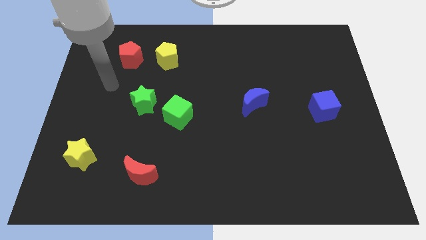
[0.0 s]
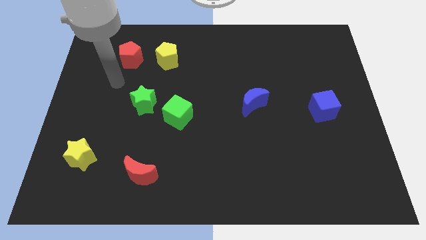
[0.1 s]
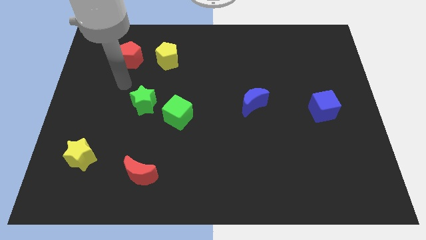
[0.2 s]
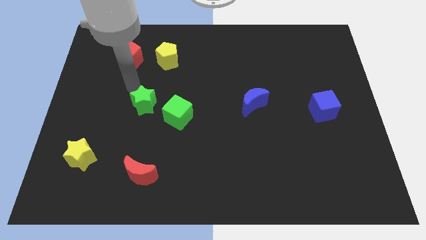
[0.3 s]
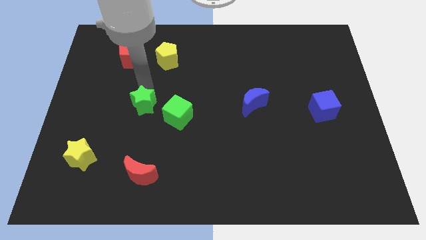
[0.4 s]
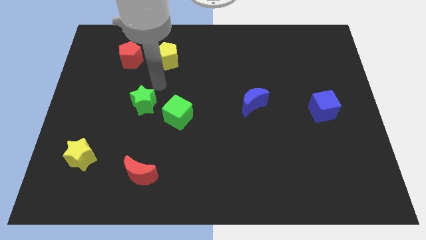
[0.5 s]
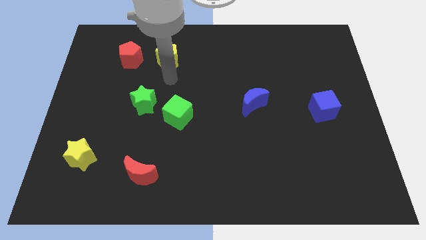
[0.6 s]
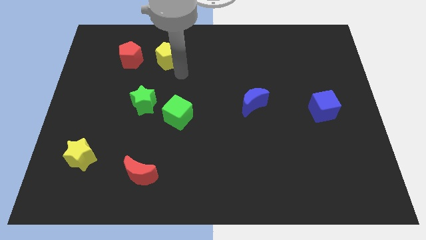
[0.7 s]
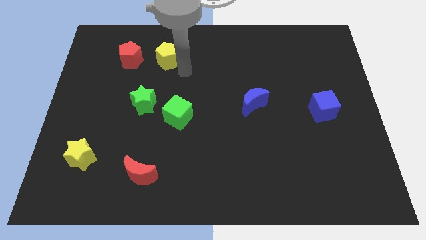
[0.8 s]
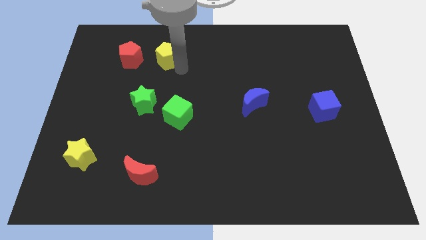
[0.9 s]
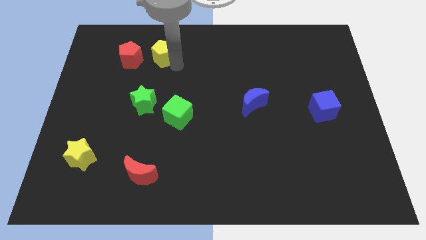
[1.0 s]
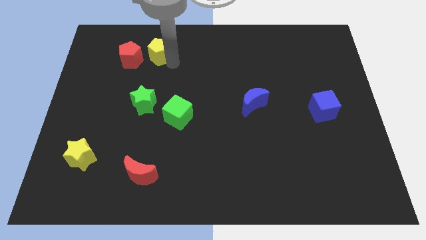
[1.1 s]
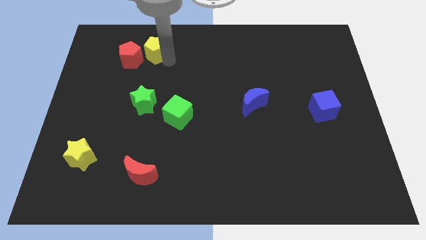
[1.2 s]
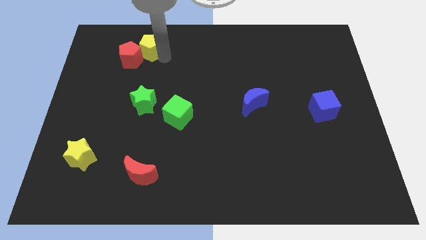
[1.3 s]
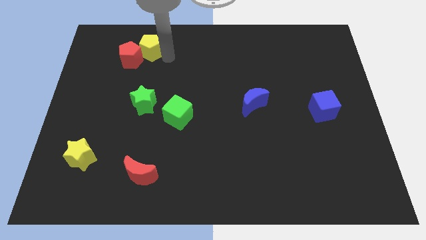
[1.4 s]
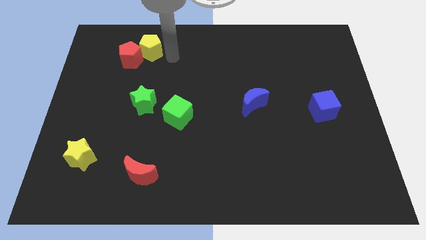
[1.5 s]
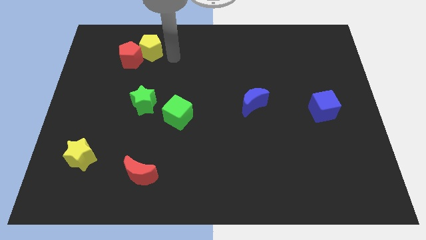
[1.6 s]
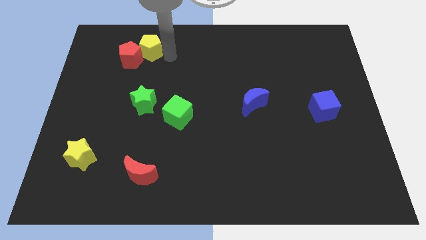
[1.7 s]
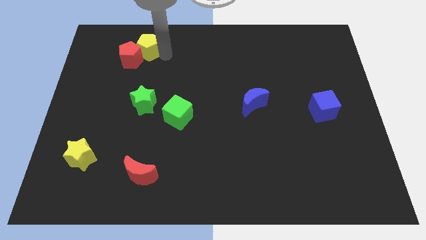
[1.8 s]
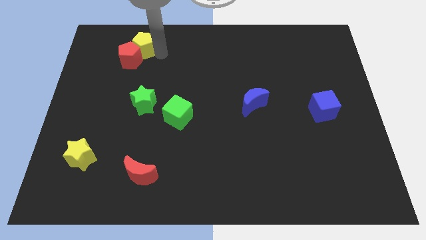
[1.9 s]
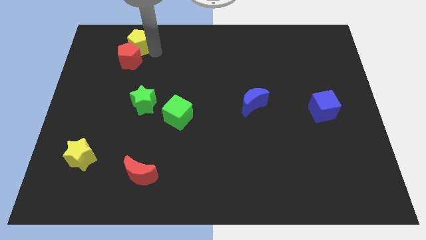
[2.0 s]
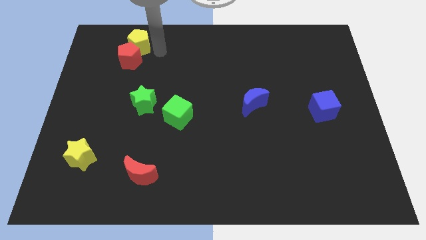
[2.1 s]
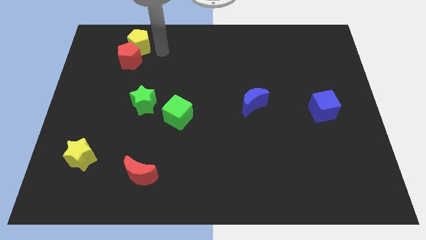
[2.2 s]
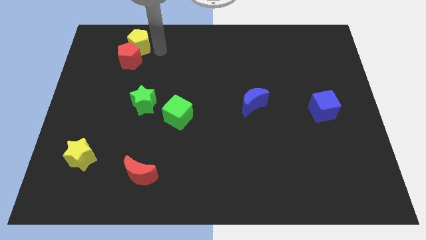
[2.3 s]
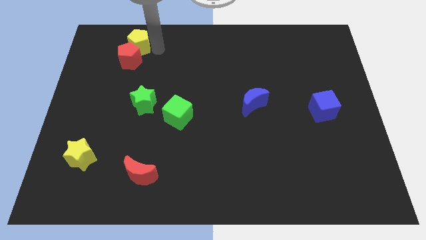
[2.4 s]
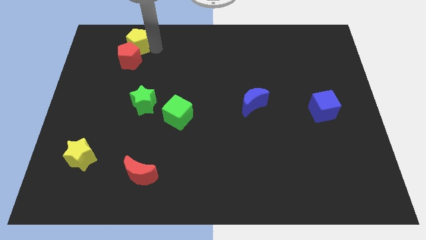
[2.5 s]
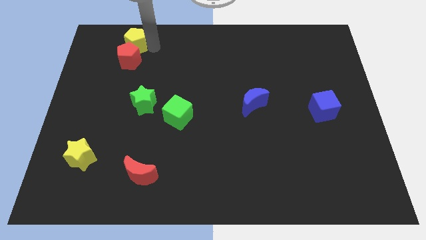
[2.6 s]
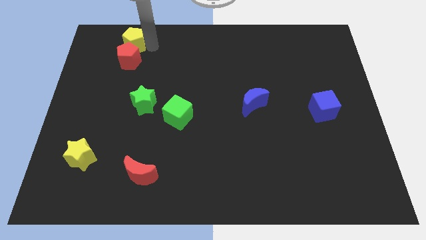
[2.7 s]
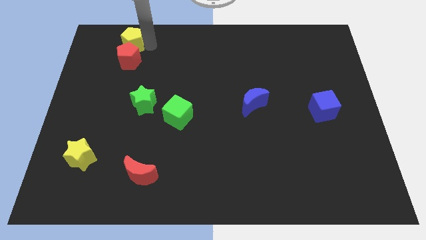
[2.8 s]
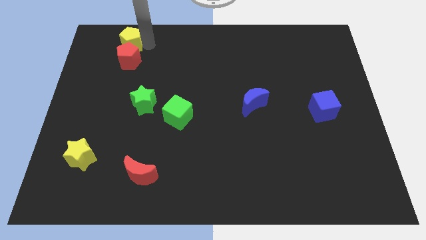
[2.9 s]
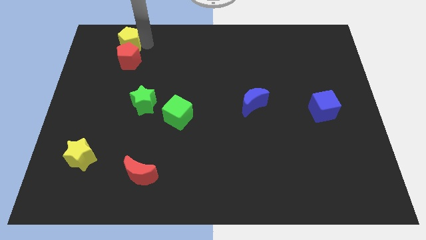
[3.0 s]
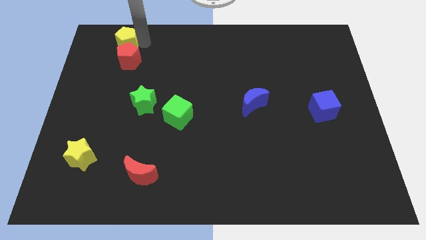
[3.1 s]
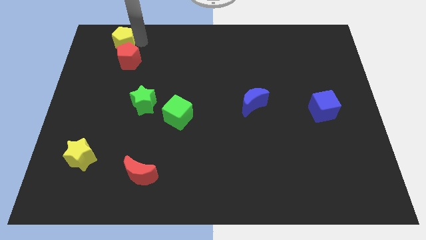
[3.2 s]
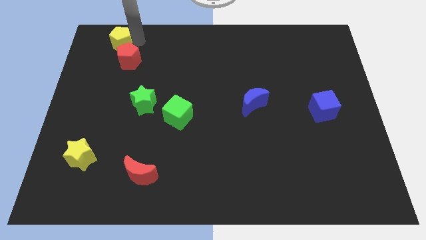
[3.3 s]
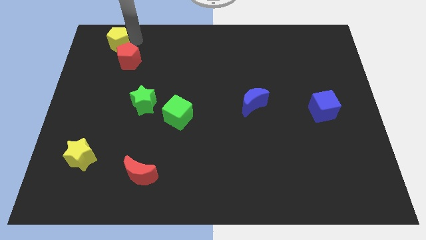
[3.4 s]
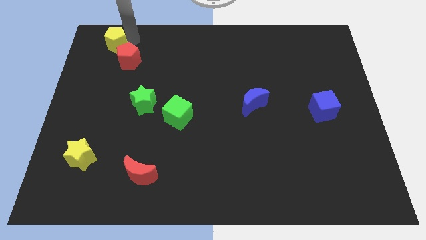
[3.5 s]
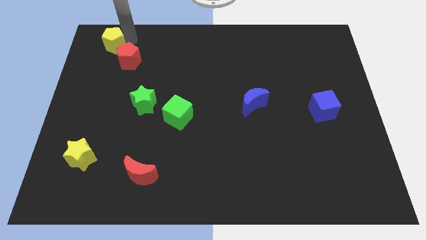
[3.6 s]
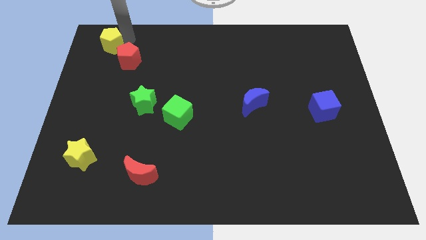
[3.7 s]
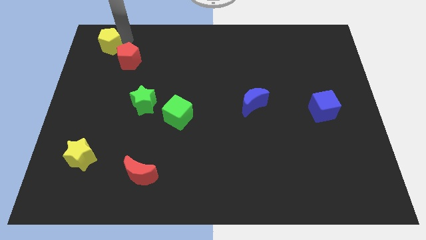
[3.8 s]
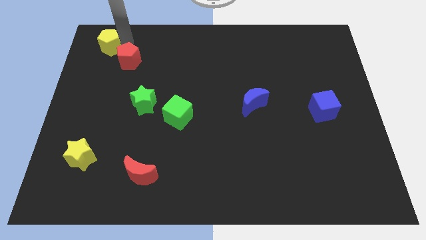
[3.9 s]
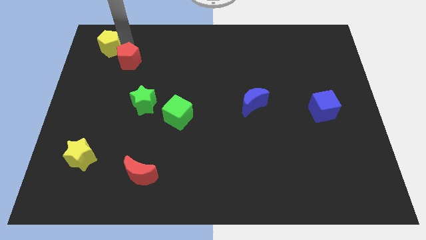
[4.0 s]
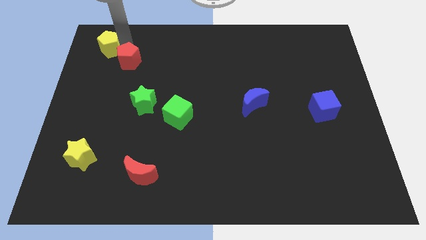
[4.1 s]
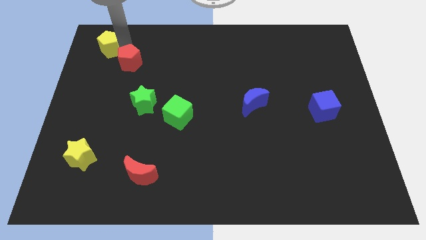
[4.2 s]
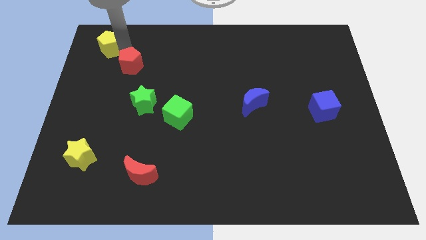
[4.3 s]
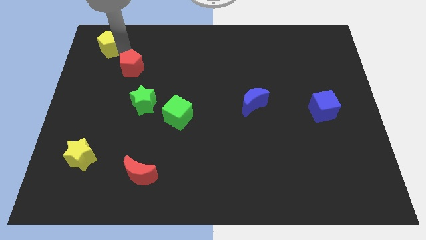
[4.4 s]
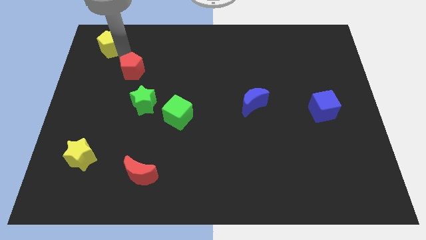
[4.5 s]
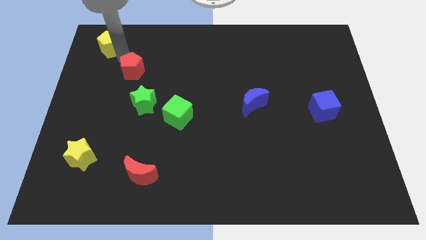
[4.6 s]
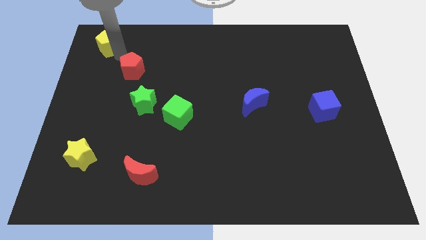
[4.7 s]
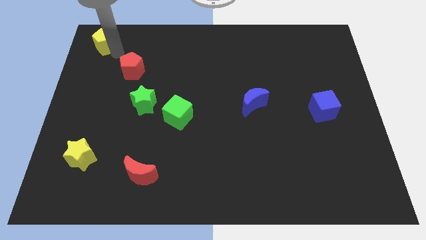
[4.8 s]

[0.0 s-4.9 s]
push the yellow pentagon to the top left

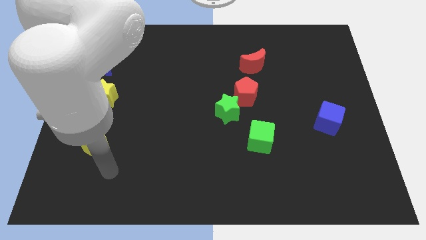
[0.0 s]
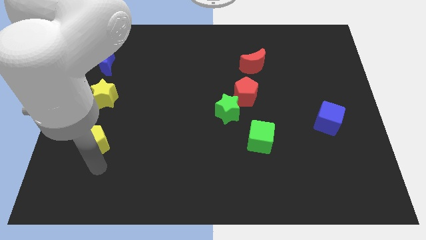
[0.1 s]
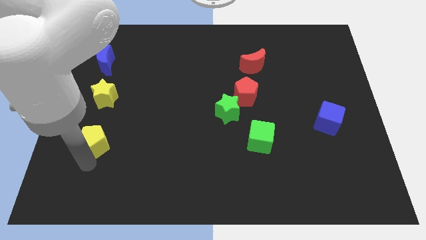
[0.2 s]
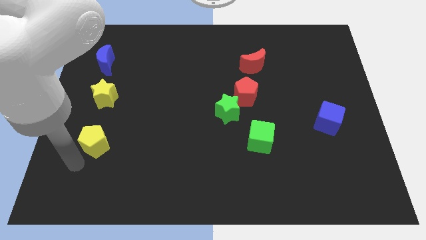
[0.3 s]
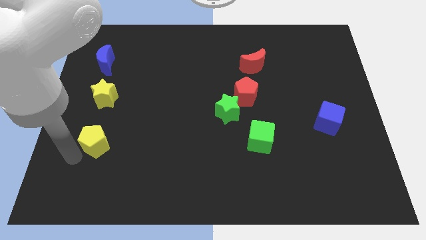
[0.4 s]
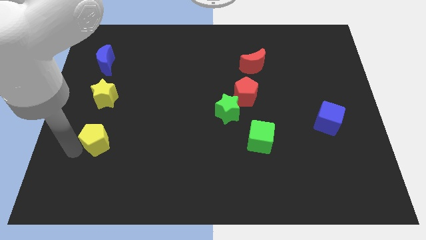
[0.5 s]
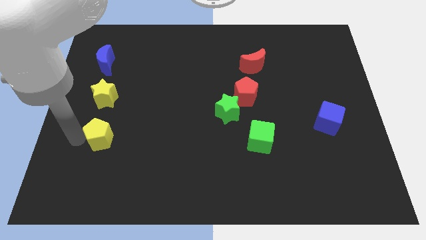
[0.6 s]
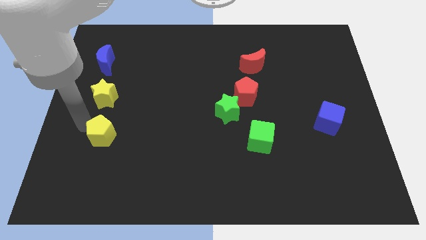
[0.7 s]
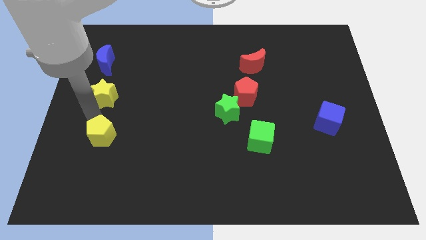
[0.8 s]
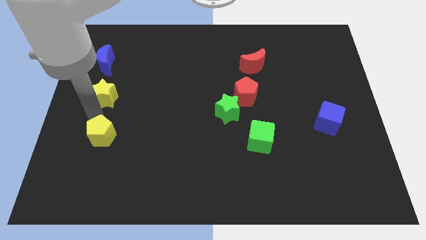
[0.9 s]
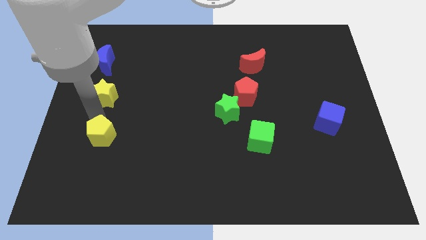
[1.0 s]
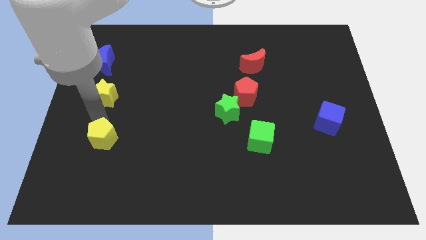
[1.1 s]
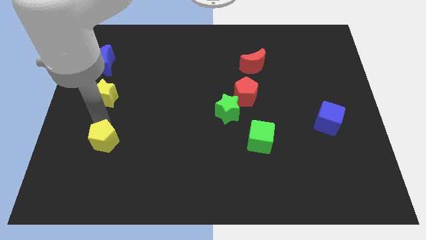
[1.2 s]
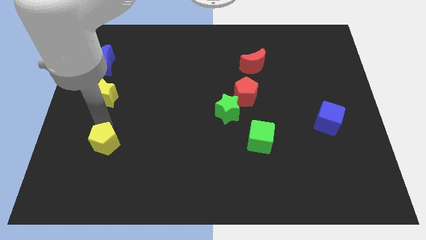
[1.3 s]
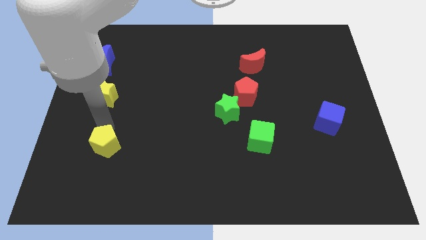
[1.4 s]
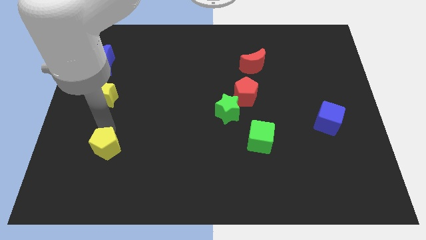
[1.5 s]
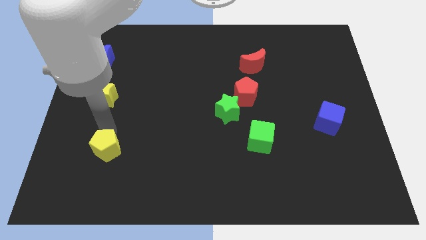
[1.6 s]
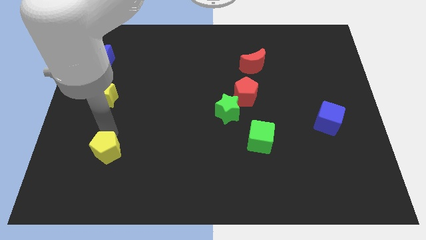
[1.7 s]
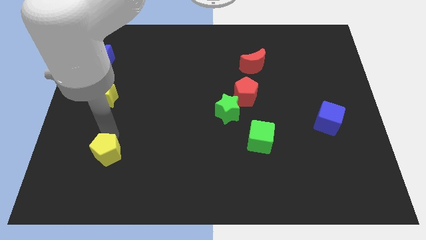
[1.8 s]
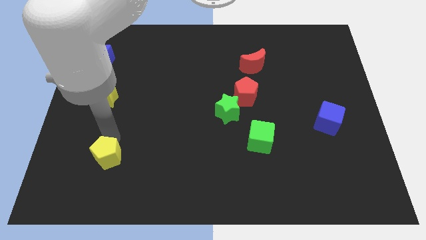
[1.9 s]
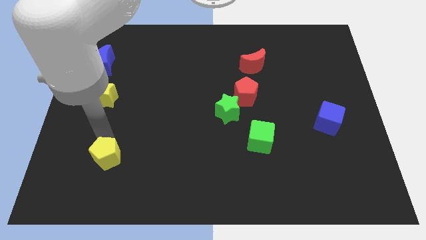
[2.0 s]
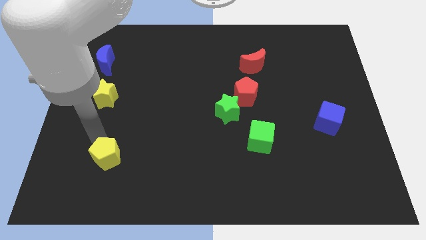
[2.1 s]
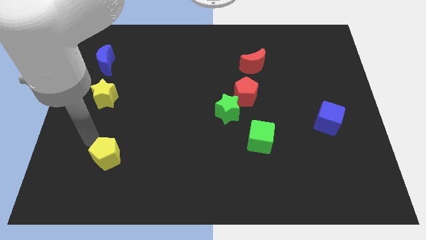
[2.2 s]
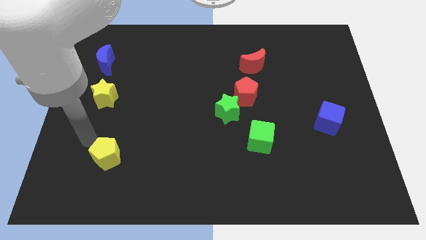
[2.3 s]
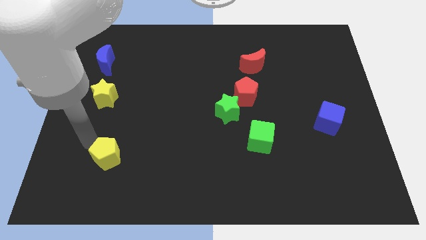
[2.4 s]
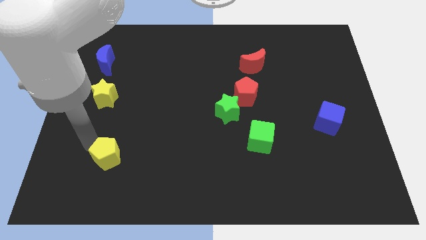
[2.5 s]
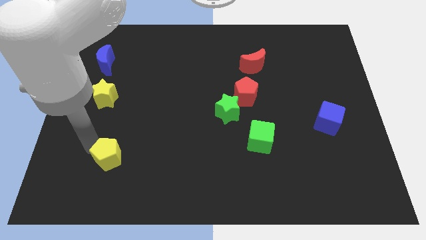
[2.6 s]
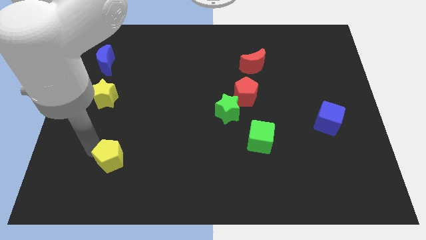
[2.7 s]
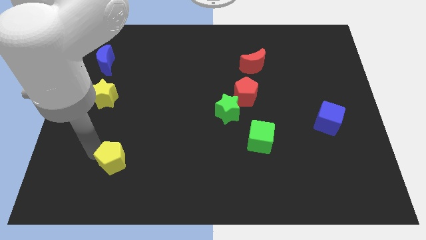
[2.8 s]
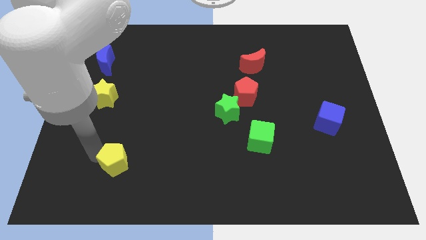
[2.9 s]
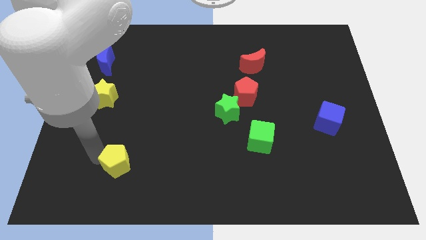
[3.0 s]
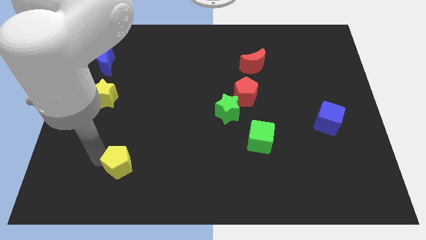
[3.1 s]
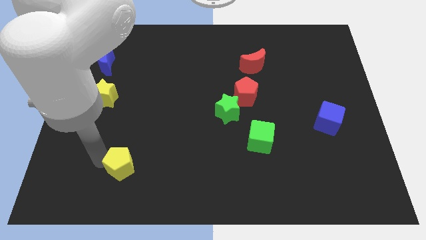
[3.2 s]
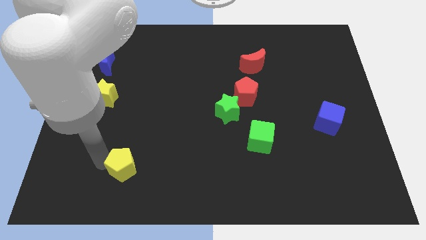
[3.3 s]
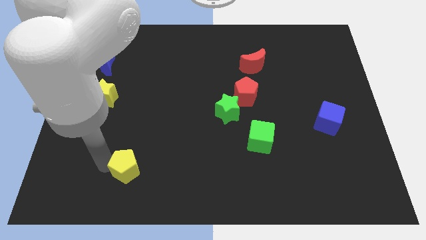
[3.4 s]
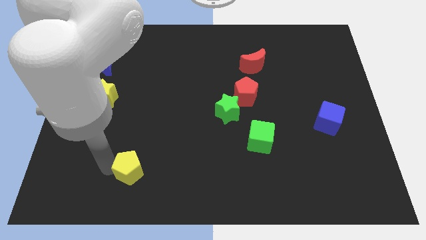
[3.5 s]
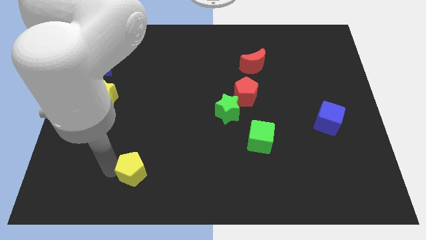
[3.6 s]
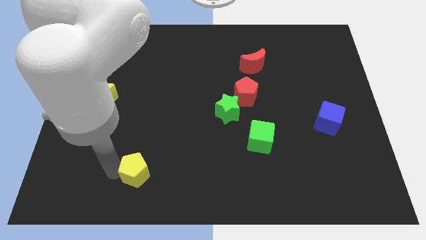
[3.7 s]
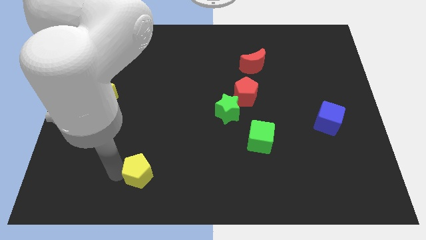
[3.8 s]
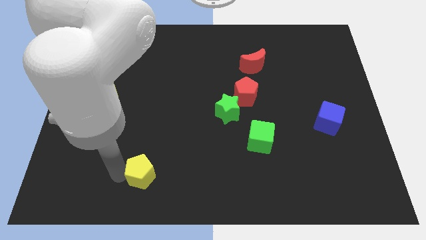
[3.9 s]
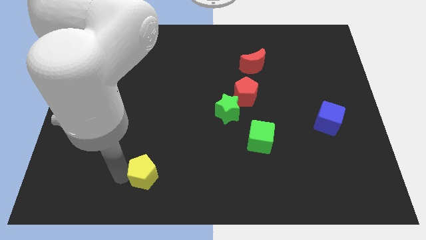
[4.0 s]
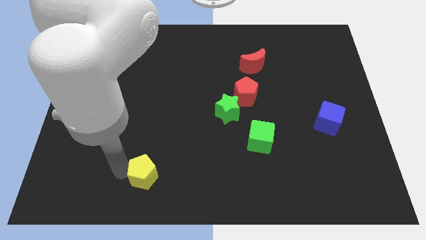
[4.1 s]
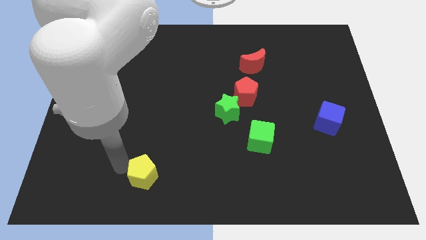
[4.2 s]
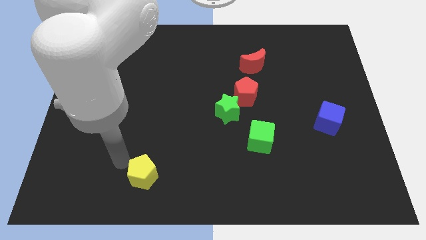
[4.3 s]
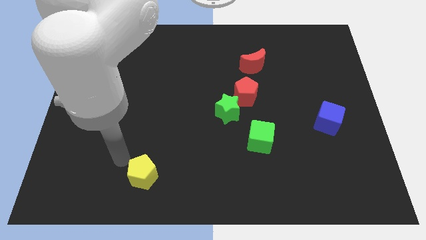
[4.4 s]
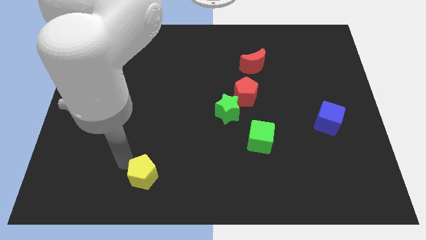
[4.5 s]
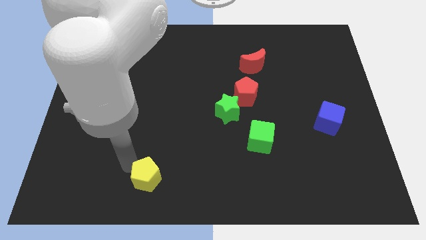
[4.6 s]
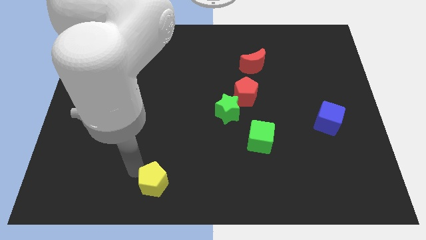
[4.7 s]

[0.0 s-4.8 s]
put the yellow pentagon to the bottom
